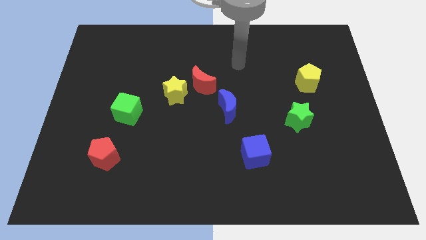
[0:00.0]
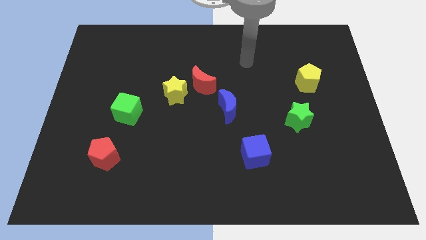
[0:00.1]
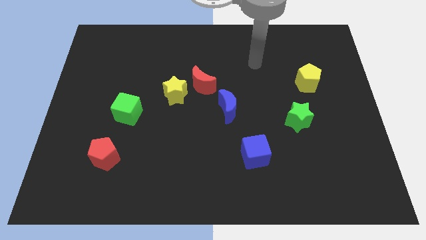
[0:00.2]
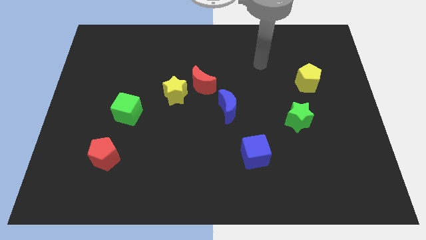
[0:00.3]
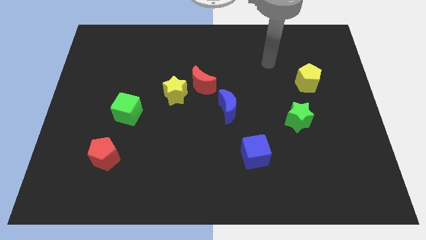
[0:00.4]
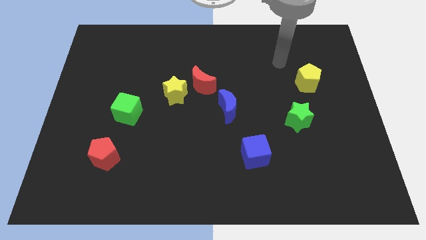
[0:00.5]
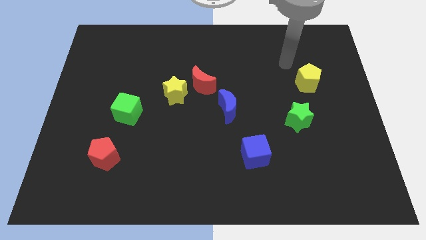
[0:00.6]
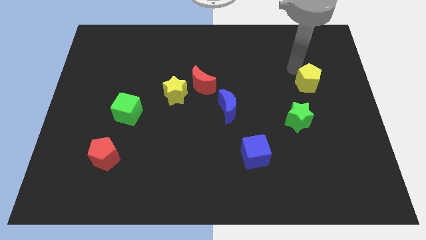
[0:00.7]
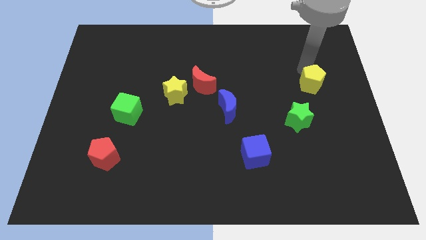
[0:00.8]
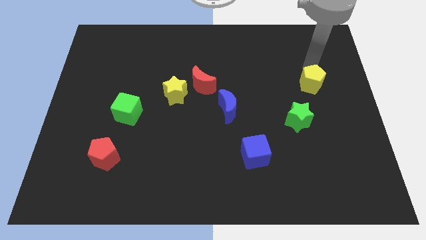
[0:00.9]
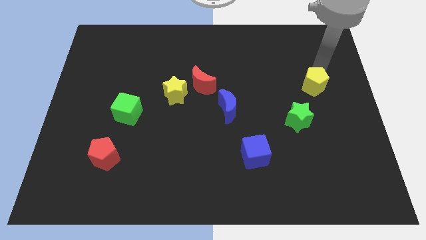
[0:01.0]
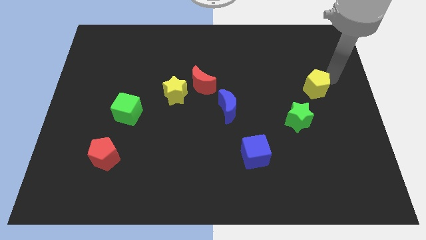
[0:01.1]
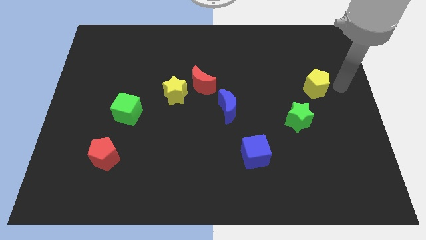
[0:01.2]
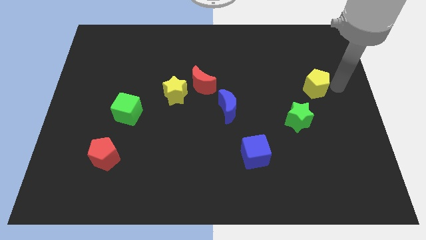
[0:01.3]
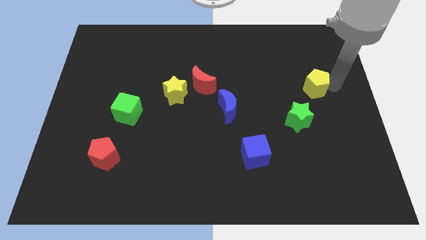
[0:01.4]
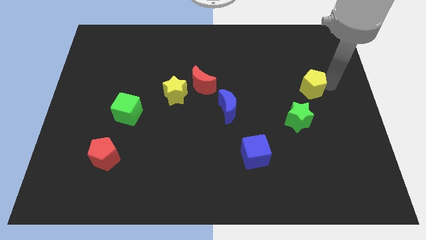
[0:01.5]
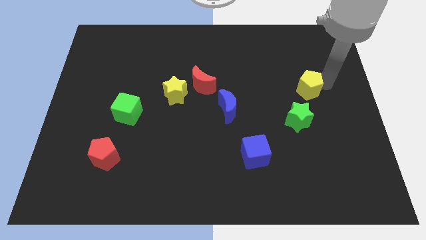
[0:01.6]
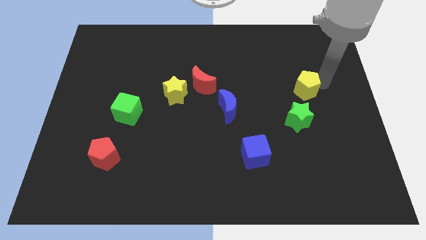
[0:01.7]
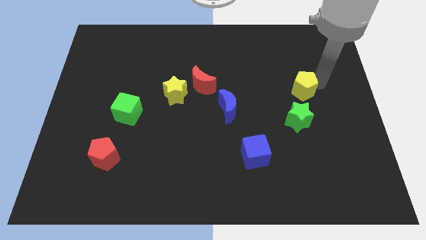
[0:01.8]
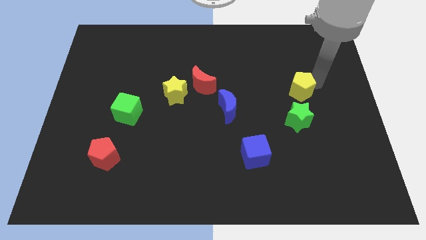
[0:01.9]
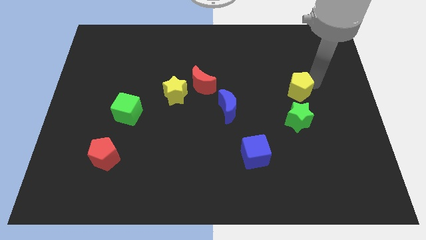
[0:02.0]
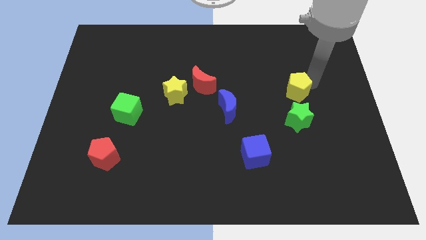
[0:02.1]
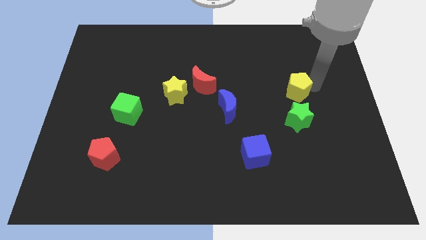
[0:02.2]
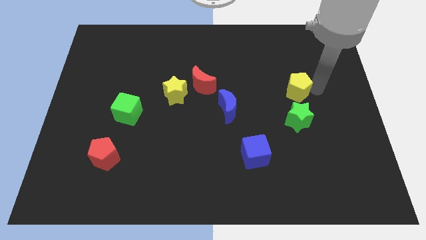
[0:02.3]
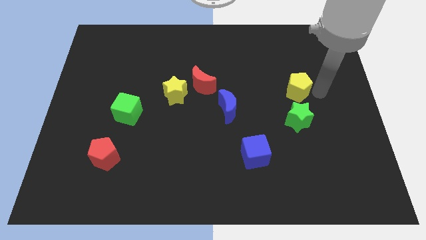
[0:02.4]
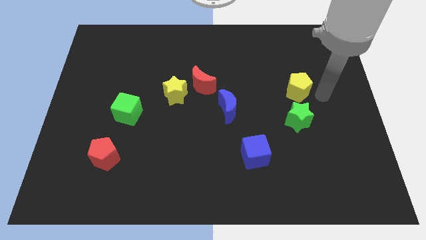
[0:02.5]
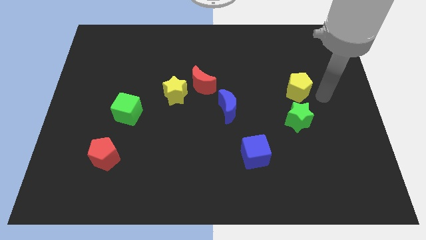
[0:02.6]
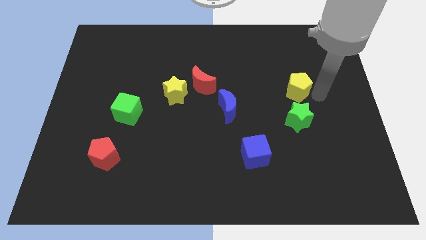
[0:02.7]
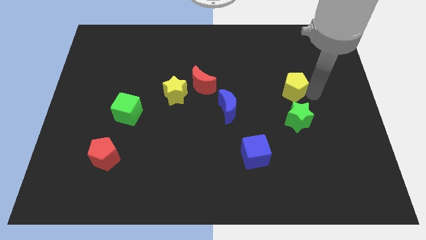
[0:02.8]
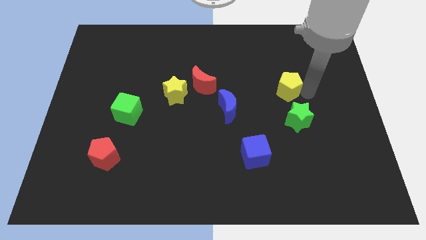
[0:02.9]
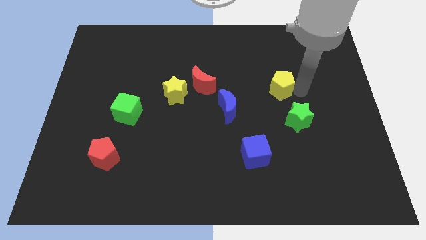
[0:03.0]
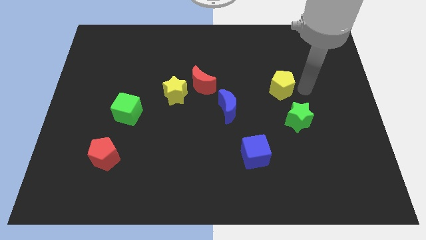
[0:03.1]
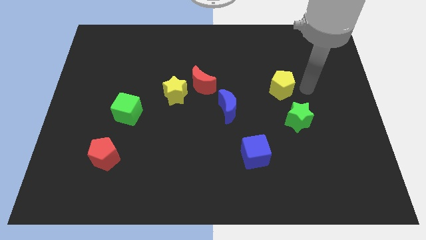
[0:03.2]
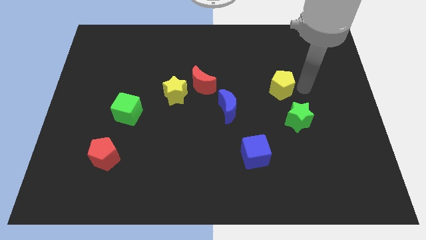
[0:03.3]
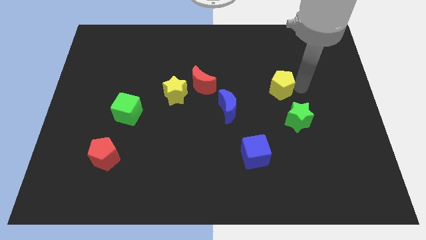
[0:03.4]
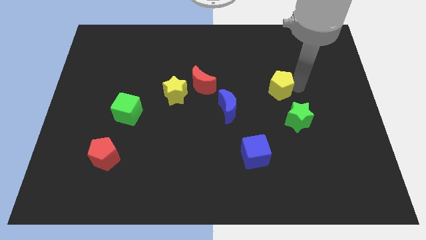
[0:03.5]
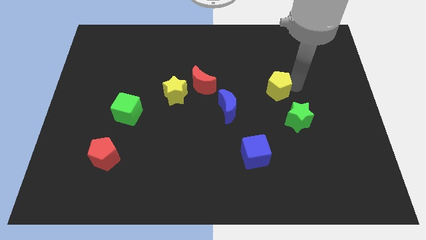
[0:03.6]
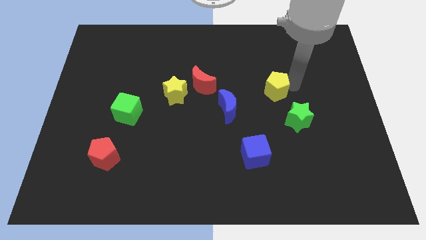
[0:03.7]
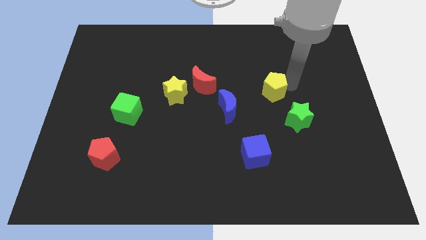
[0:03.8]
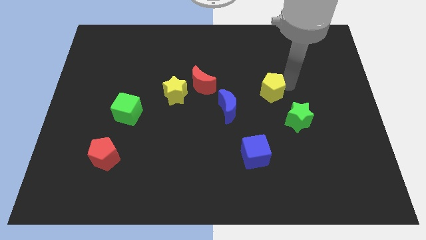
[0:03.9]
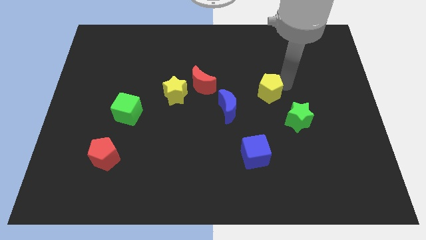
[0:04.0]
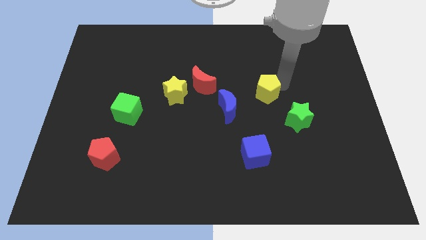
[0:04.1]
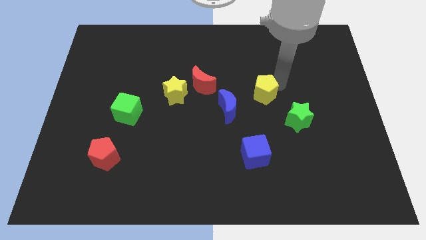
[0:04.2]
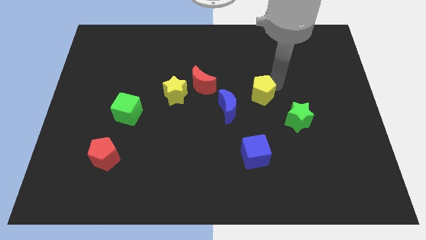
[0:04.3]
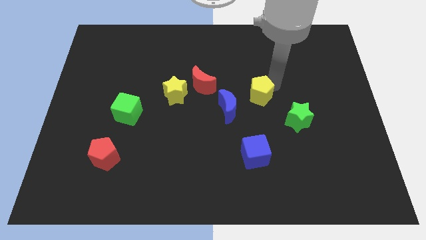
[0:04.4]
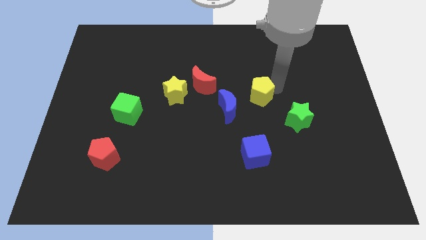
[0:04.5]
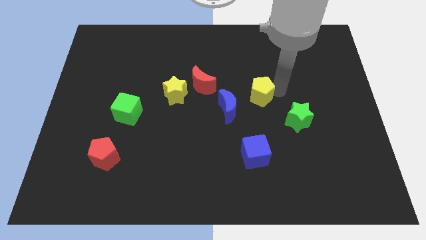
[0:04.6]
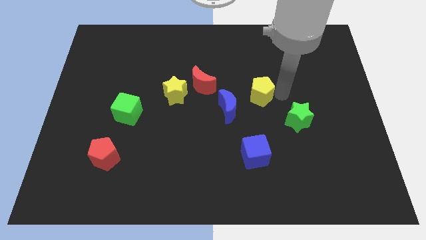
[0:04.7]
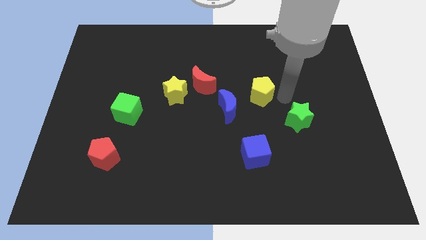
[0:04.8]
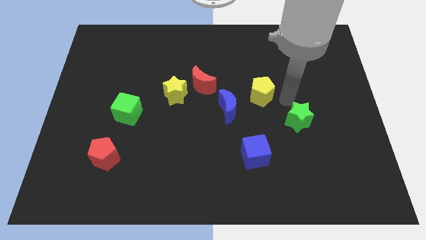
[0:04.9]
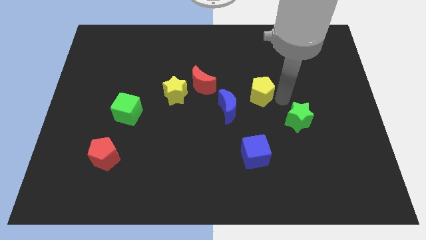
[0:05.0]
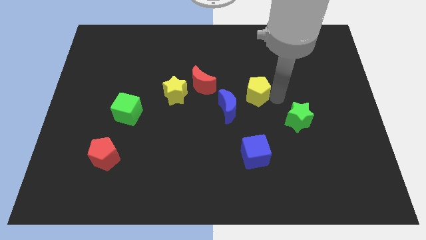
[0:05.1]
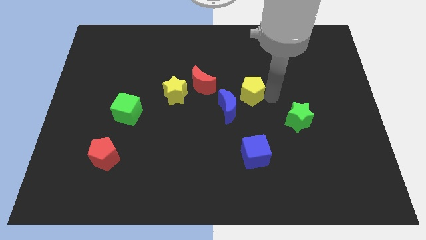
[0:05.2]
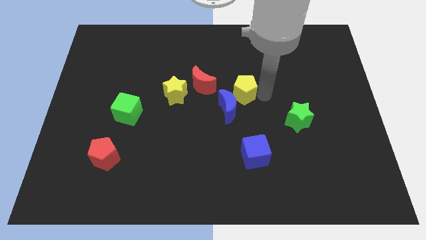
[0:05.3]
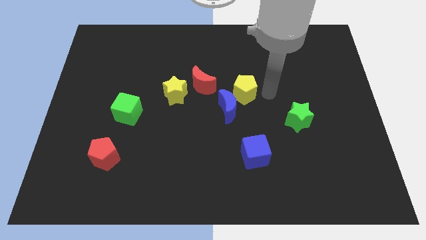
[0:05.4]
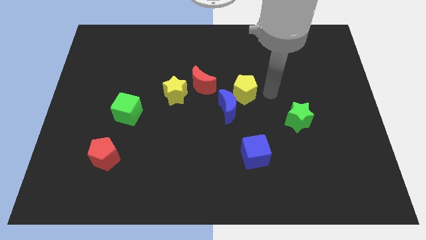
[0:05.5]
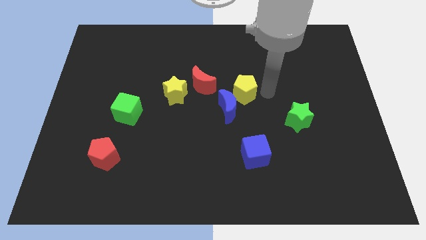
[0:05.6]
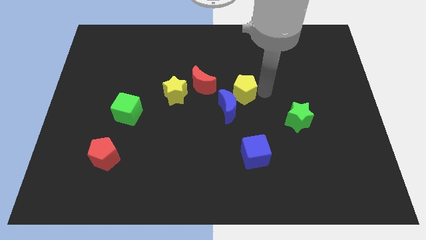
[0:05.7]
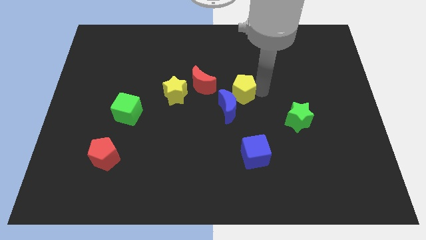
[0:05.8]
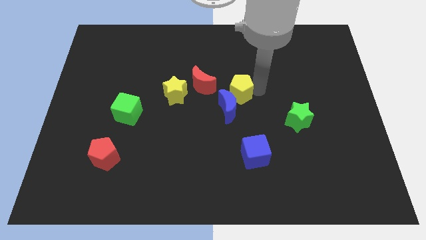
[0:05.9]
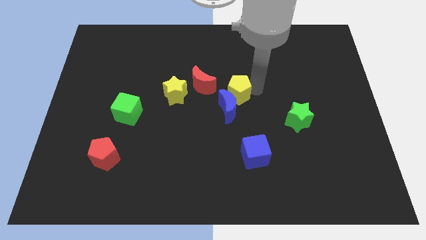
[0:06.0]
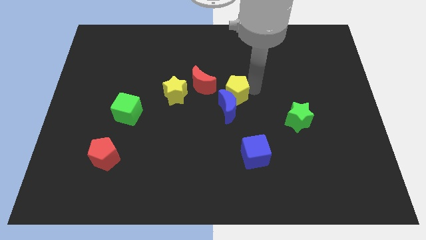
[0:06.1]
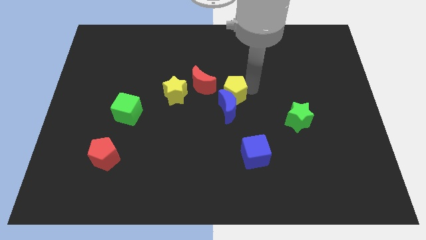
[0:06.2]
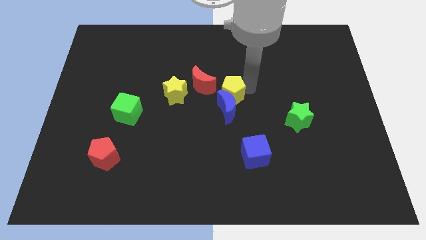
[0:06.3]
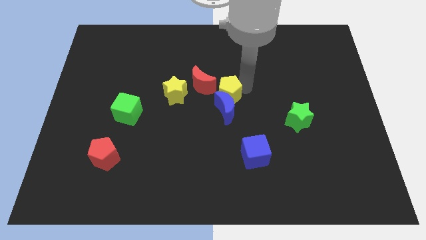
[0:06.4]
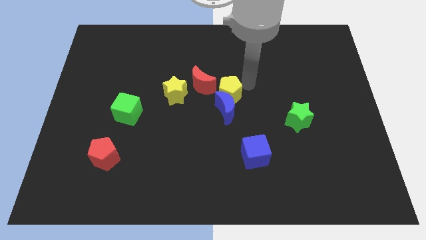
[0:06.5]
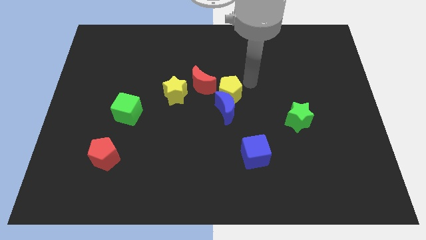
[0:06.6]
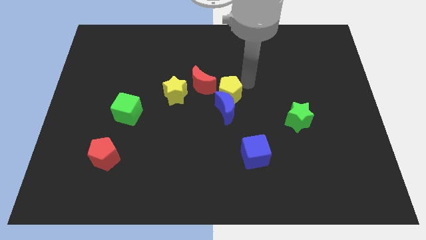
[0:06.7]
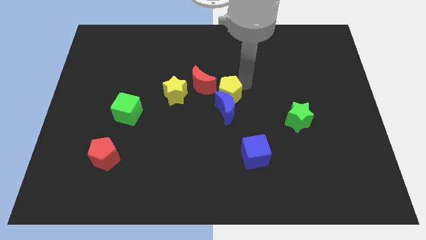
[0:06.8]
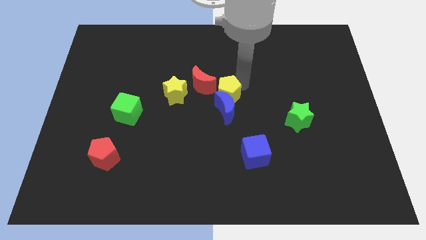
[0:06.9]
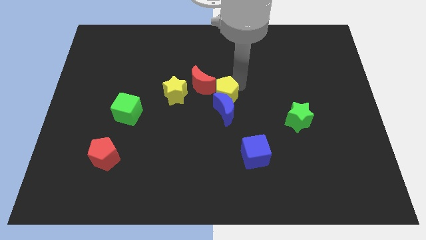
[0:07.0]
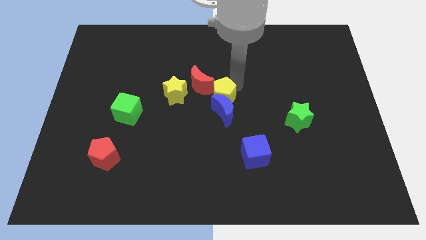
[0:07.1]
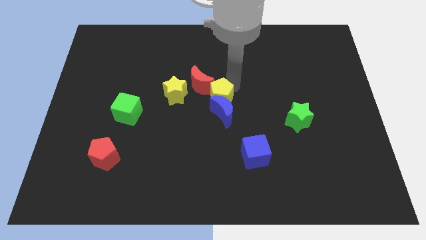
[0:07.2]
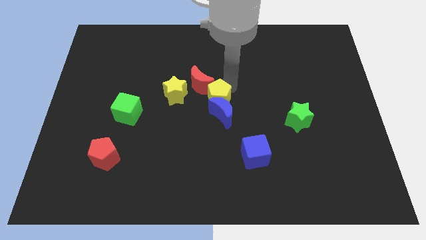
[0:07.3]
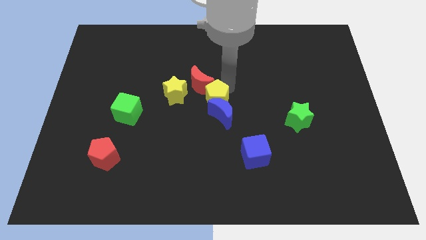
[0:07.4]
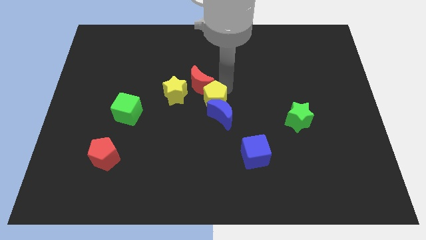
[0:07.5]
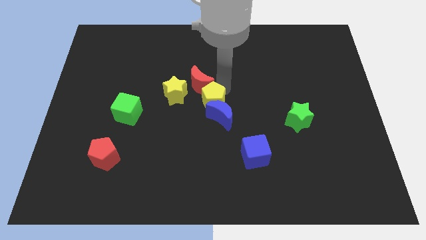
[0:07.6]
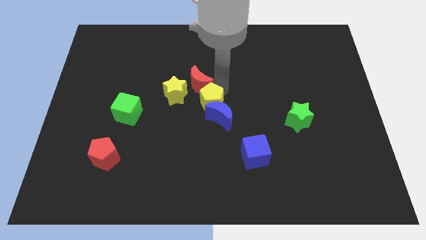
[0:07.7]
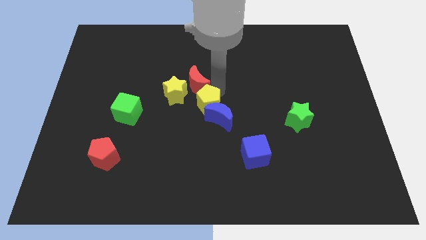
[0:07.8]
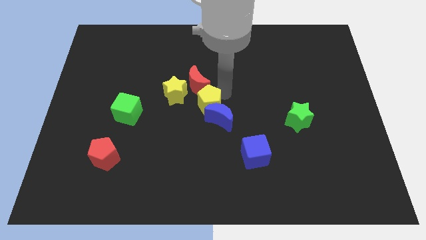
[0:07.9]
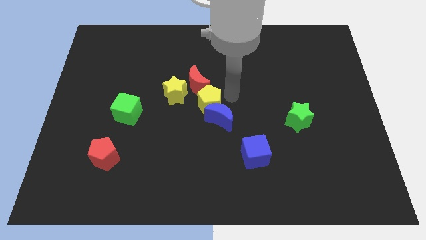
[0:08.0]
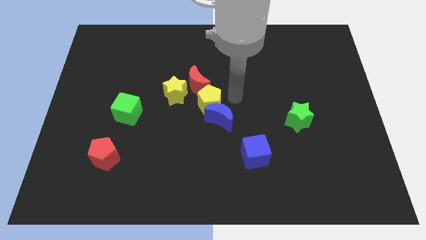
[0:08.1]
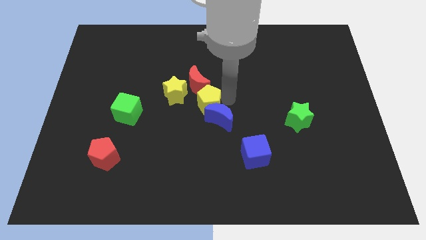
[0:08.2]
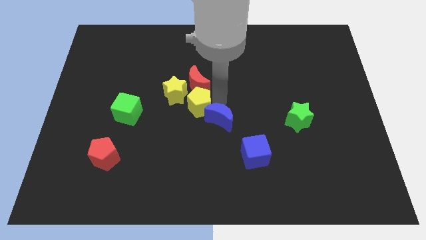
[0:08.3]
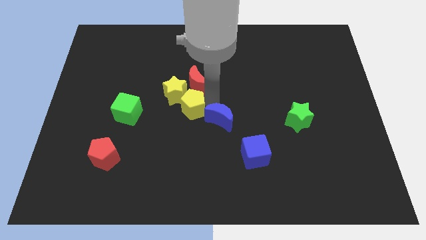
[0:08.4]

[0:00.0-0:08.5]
put the yellow pentagon just right of the green cube
